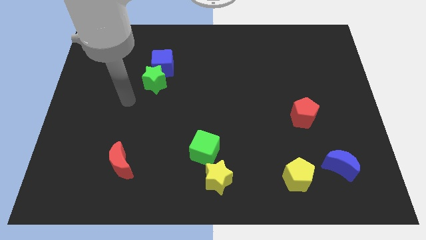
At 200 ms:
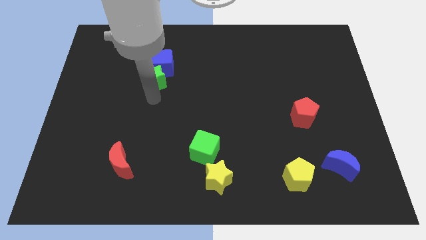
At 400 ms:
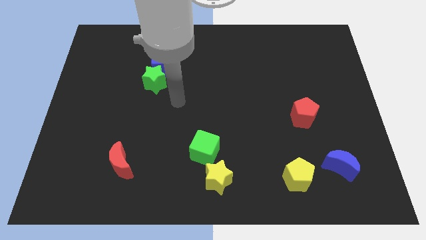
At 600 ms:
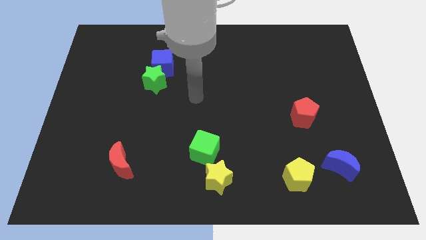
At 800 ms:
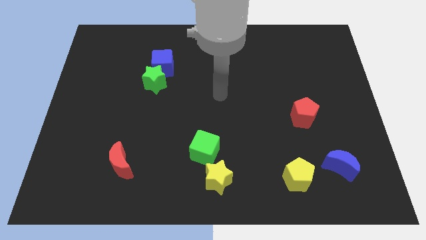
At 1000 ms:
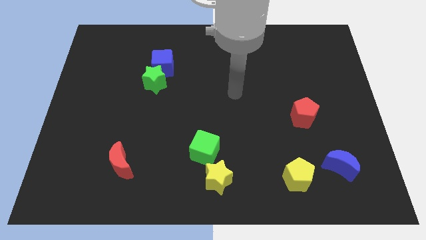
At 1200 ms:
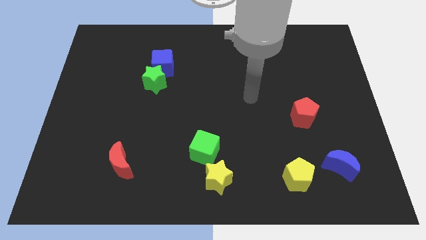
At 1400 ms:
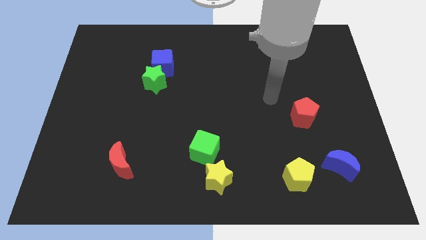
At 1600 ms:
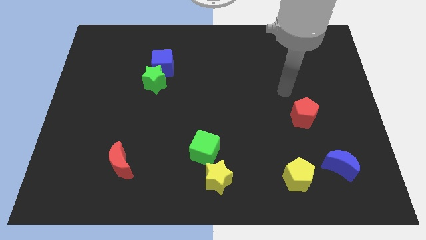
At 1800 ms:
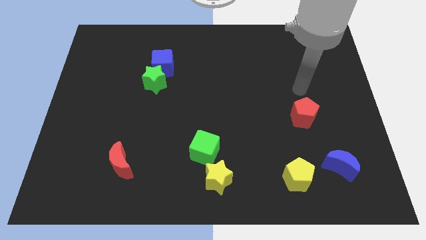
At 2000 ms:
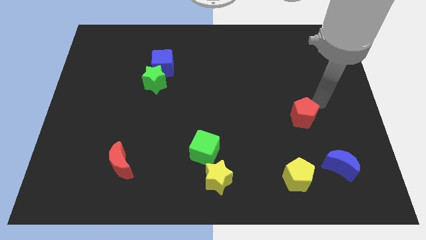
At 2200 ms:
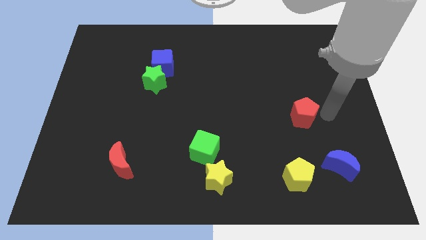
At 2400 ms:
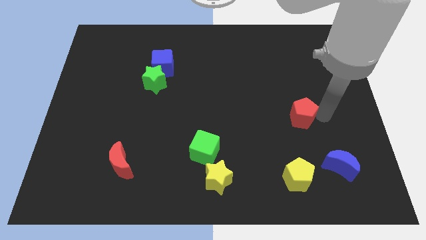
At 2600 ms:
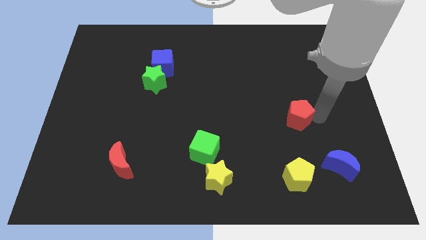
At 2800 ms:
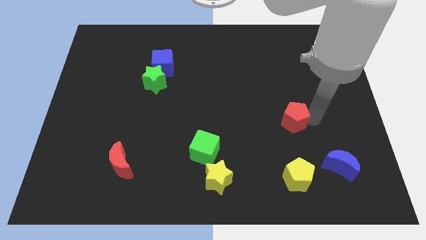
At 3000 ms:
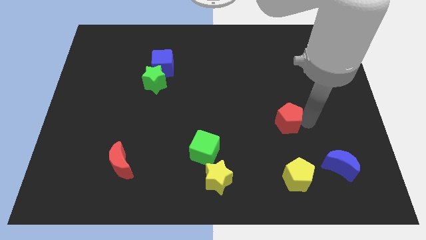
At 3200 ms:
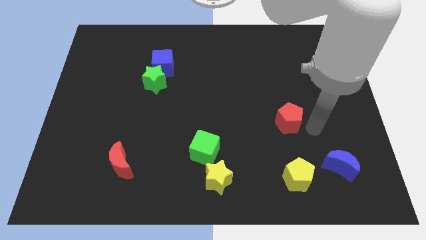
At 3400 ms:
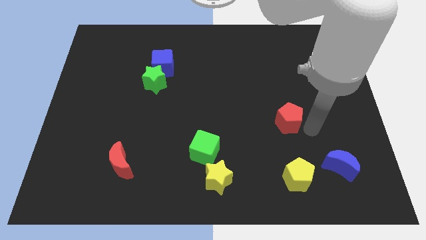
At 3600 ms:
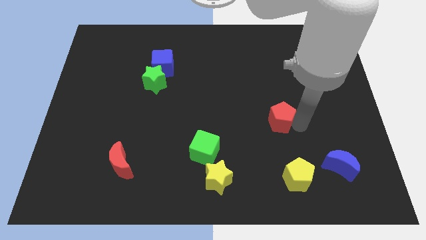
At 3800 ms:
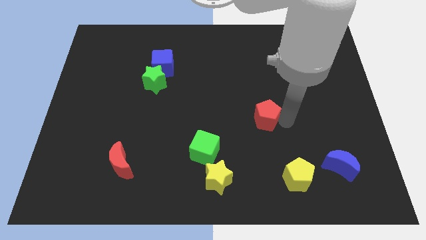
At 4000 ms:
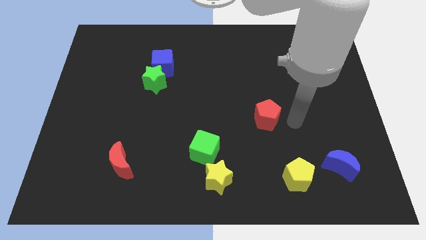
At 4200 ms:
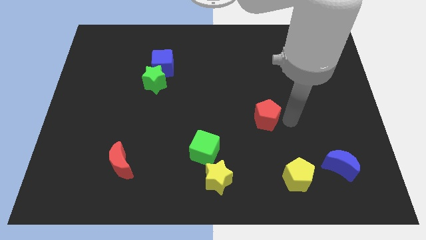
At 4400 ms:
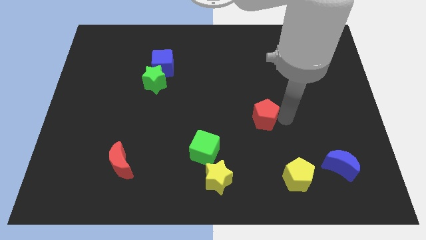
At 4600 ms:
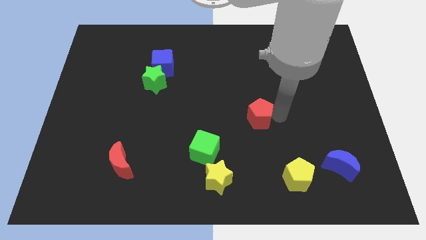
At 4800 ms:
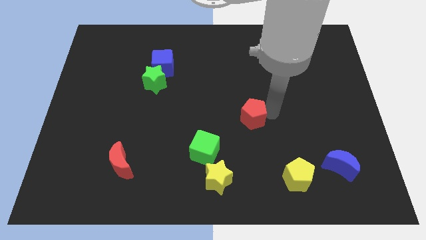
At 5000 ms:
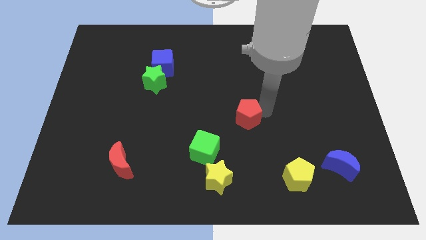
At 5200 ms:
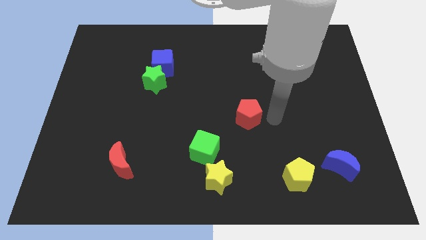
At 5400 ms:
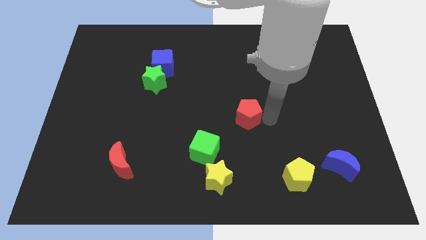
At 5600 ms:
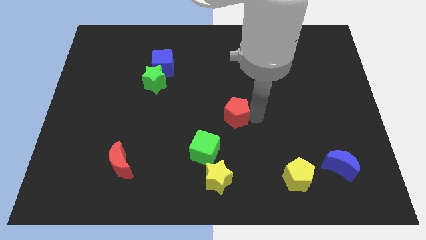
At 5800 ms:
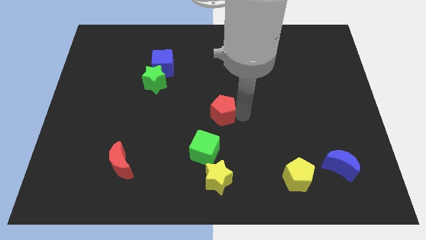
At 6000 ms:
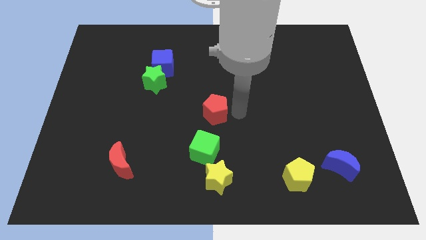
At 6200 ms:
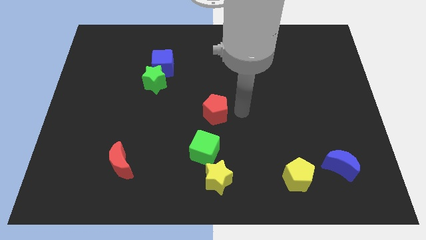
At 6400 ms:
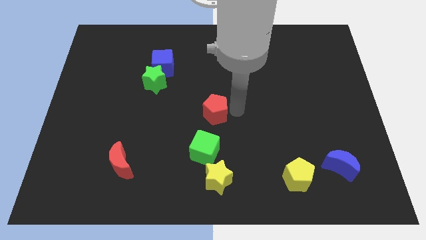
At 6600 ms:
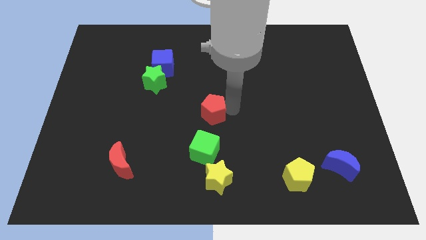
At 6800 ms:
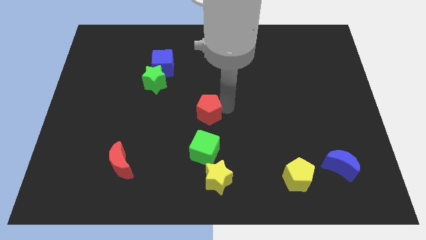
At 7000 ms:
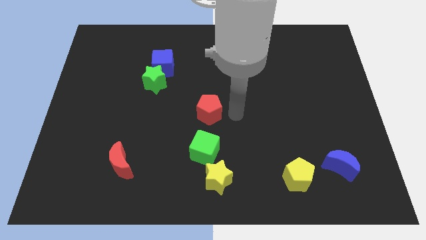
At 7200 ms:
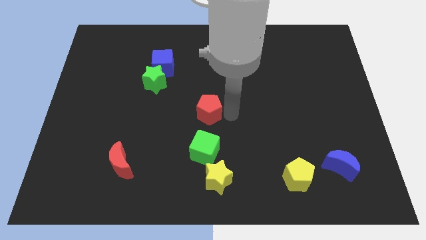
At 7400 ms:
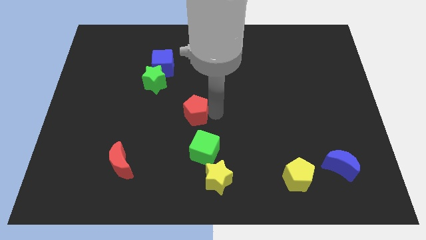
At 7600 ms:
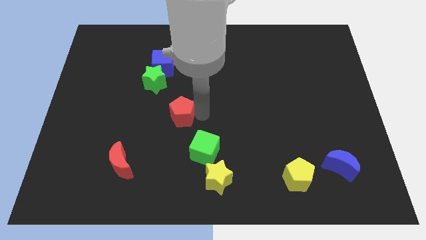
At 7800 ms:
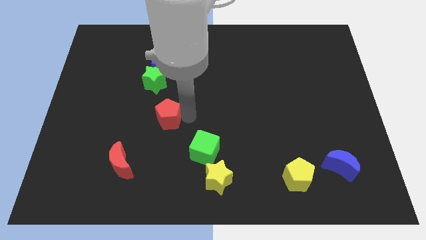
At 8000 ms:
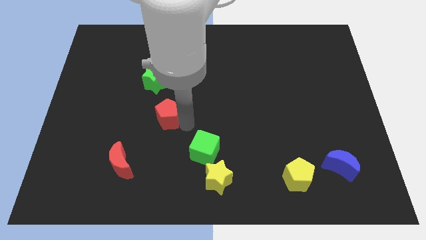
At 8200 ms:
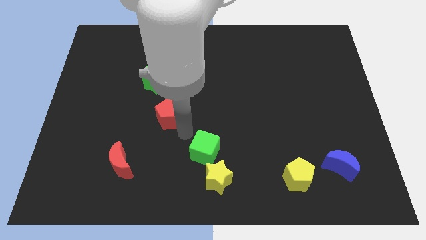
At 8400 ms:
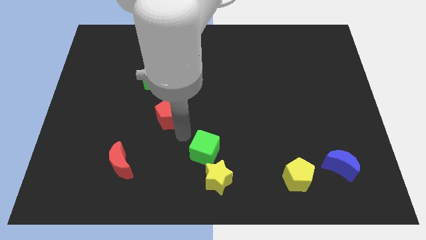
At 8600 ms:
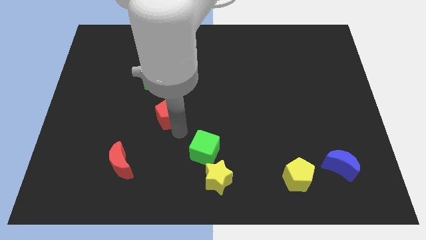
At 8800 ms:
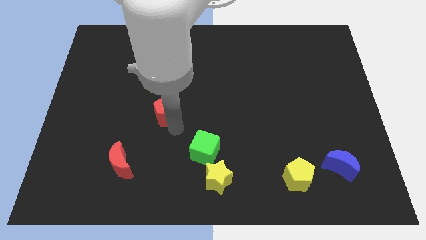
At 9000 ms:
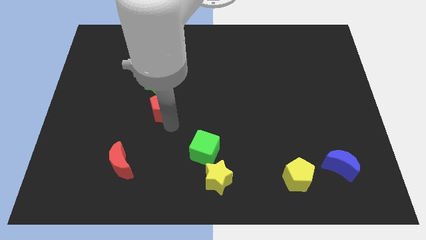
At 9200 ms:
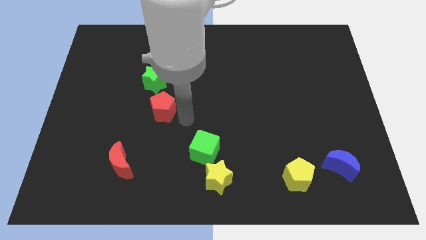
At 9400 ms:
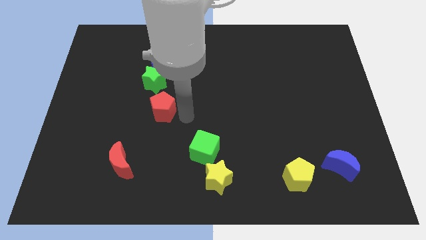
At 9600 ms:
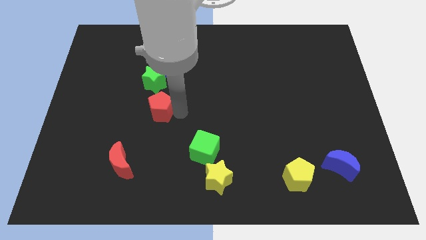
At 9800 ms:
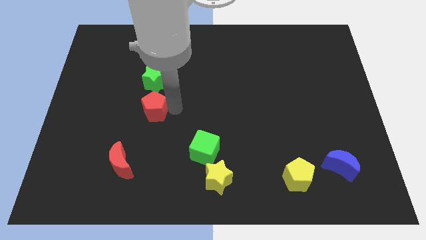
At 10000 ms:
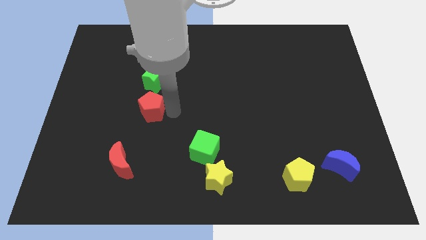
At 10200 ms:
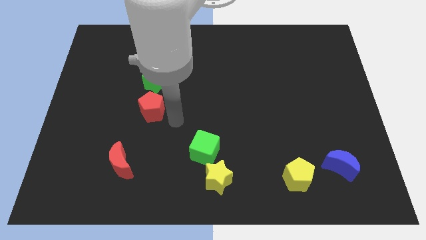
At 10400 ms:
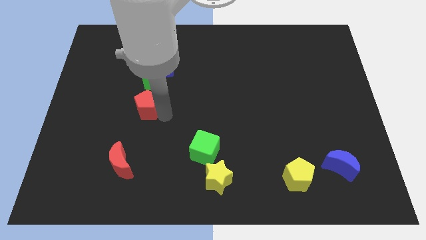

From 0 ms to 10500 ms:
push the red pentagon diagonally down and to the left of the green star

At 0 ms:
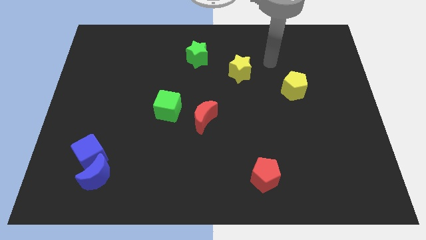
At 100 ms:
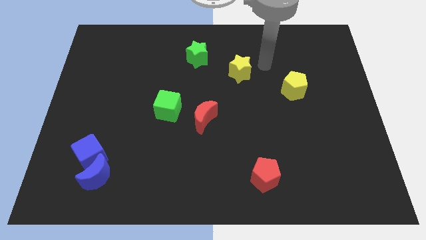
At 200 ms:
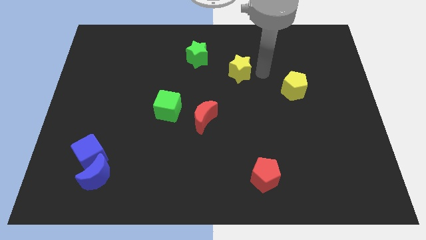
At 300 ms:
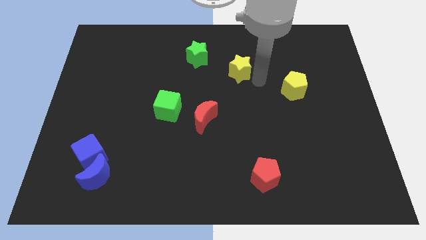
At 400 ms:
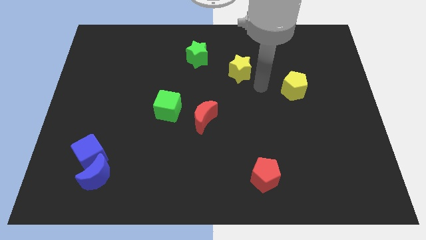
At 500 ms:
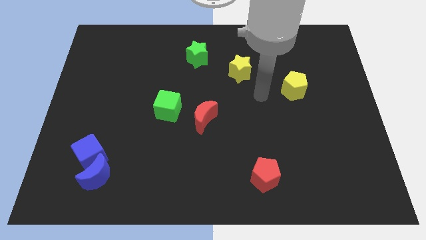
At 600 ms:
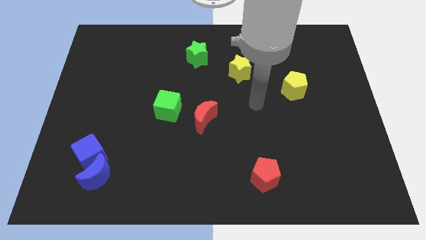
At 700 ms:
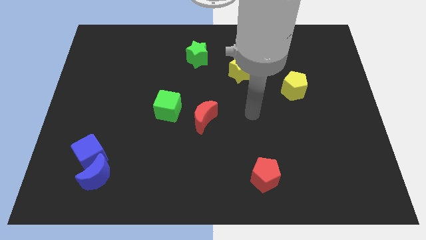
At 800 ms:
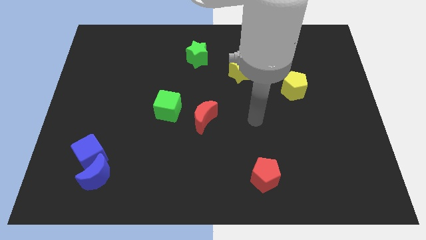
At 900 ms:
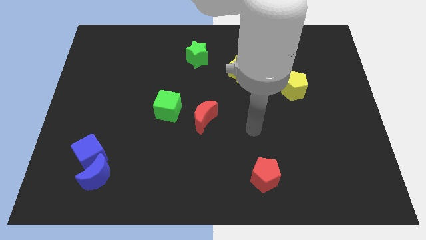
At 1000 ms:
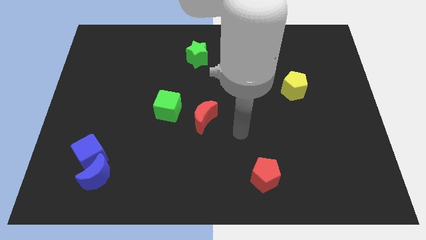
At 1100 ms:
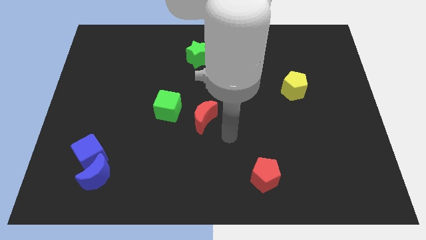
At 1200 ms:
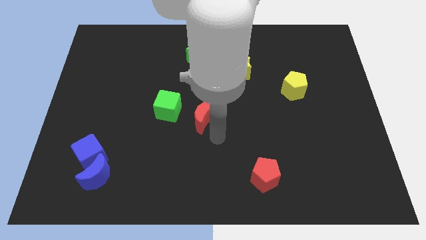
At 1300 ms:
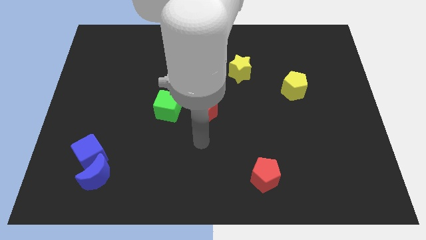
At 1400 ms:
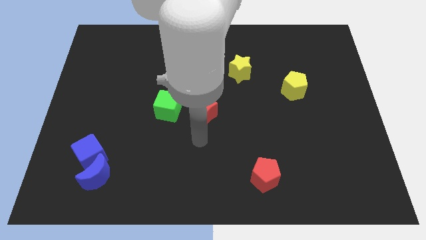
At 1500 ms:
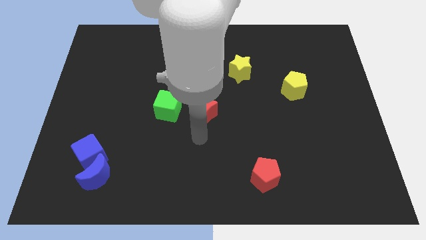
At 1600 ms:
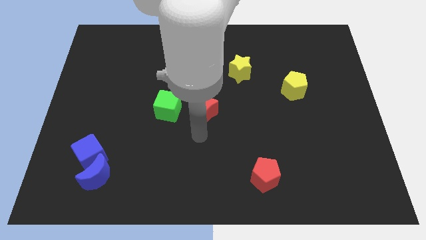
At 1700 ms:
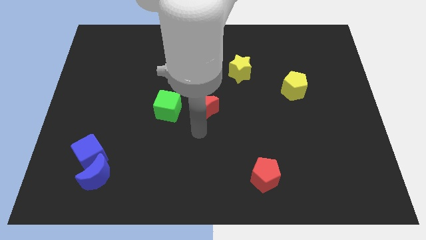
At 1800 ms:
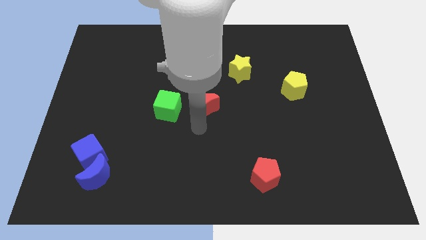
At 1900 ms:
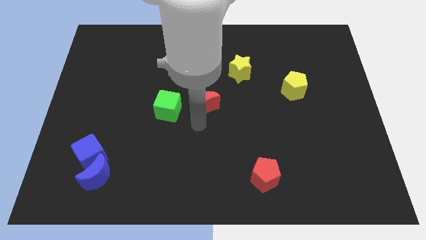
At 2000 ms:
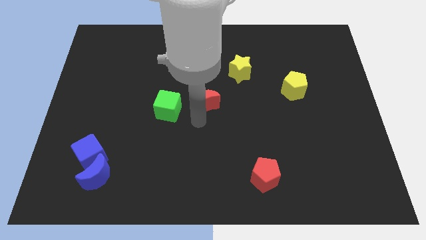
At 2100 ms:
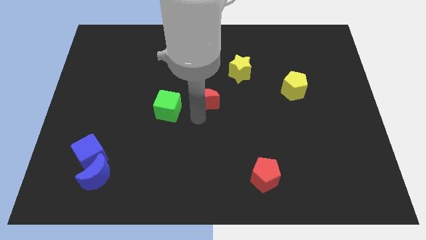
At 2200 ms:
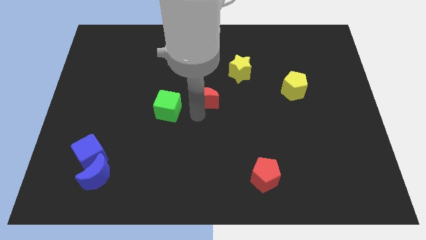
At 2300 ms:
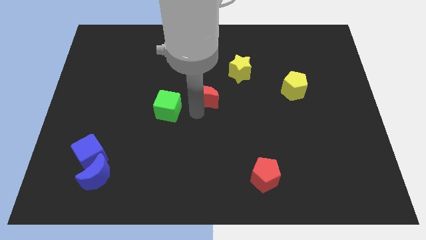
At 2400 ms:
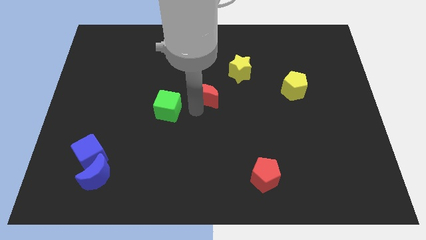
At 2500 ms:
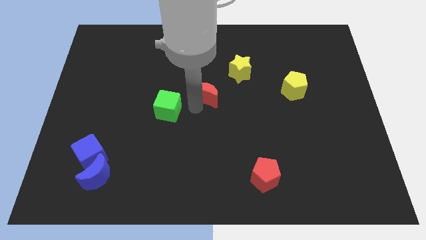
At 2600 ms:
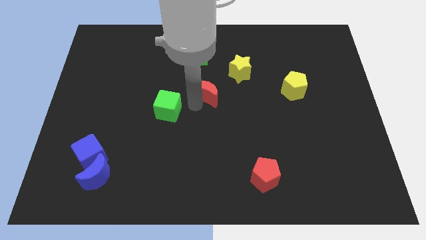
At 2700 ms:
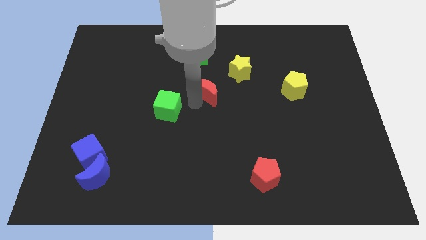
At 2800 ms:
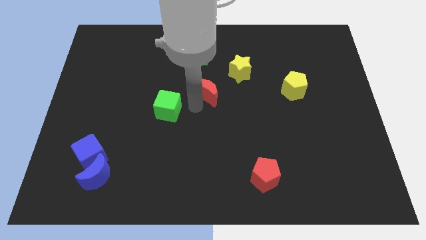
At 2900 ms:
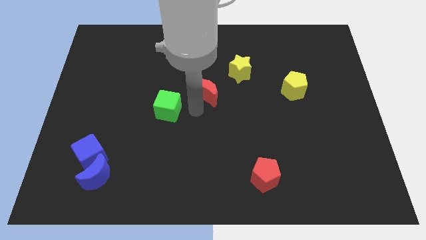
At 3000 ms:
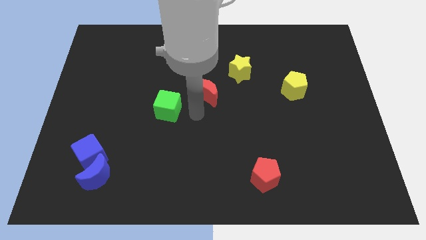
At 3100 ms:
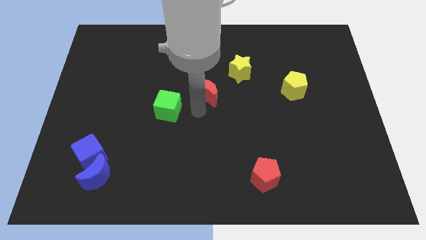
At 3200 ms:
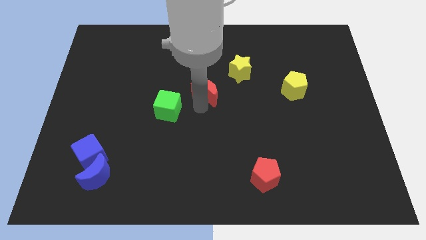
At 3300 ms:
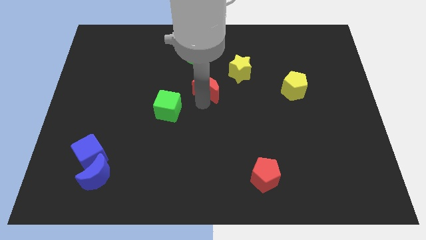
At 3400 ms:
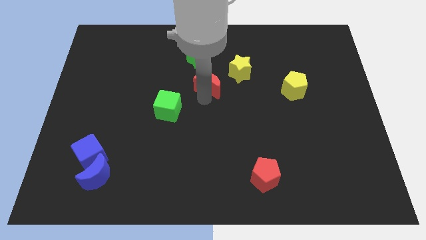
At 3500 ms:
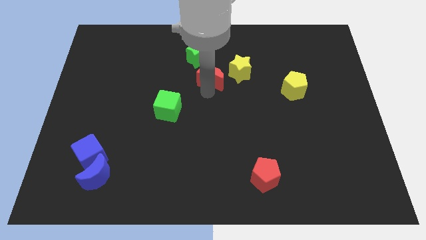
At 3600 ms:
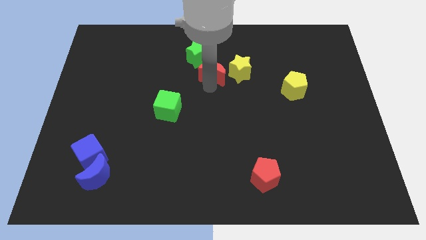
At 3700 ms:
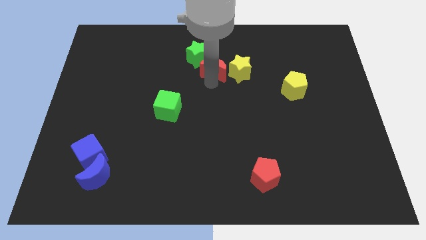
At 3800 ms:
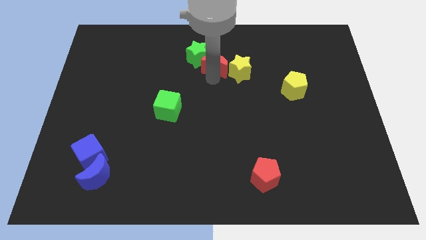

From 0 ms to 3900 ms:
push the red moon to the right side of the green star
